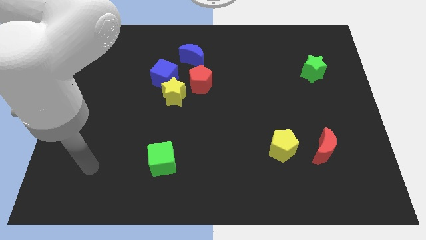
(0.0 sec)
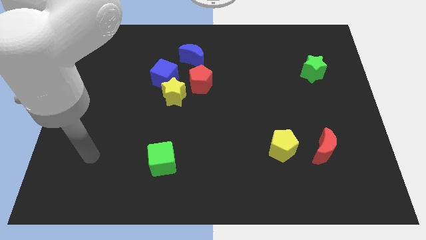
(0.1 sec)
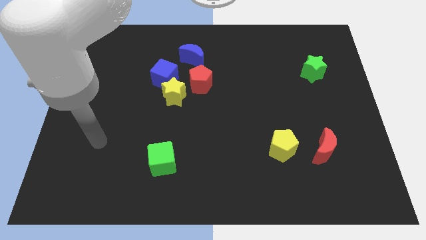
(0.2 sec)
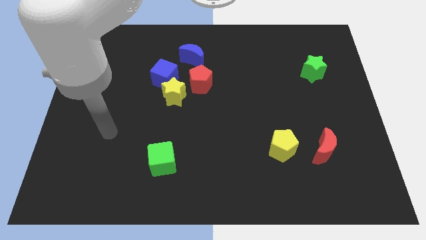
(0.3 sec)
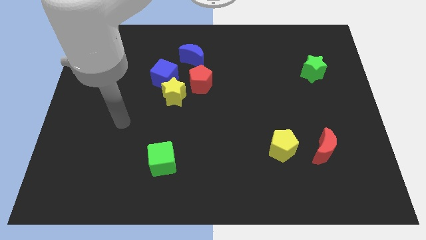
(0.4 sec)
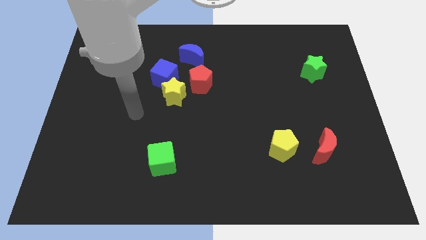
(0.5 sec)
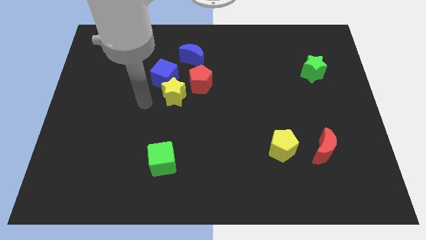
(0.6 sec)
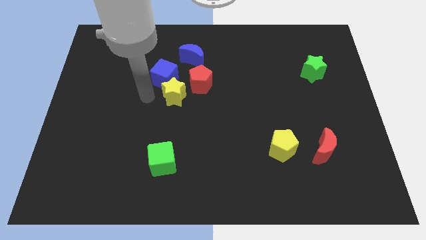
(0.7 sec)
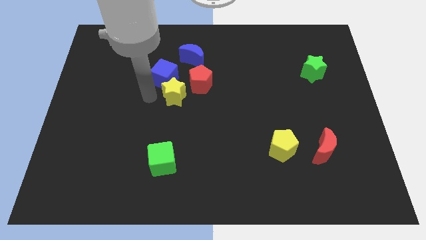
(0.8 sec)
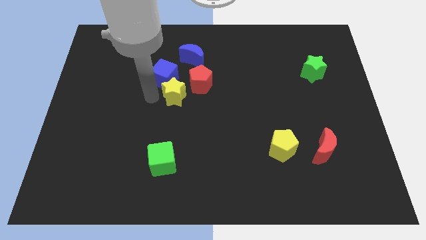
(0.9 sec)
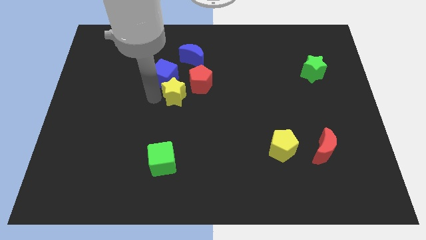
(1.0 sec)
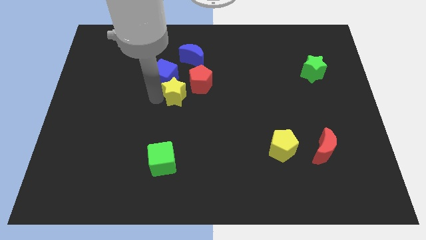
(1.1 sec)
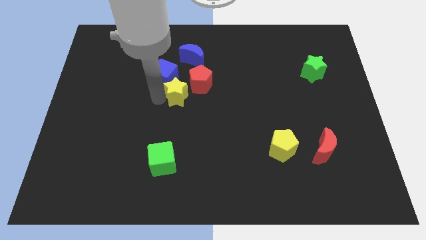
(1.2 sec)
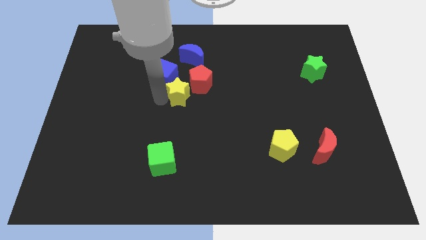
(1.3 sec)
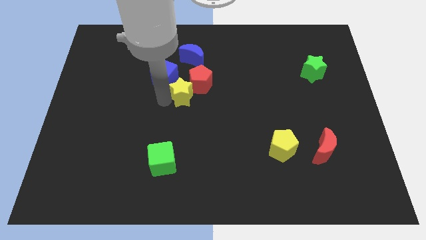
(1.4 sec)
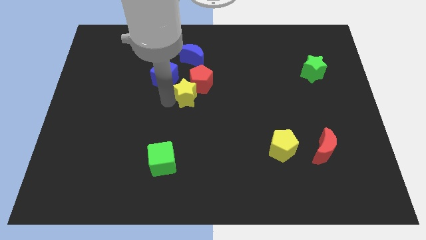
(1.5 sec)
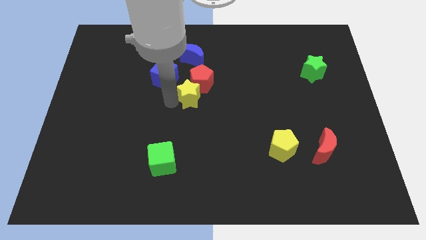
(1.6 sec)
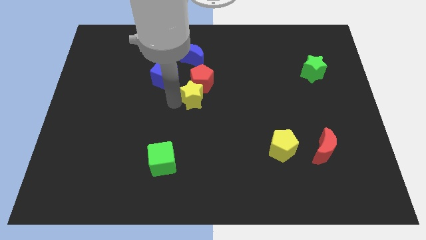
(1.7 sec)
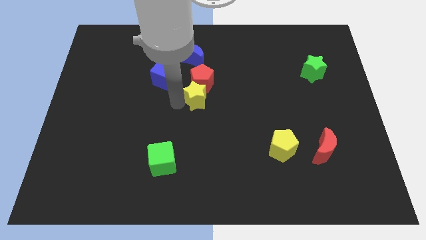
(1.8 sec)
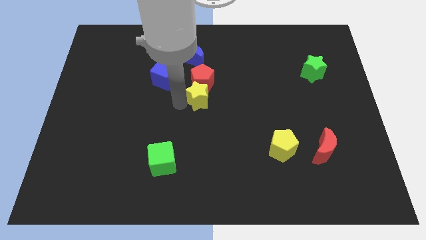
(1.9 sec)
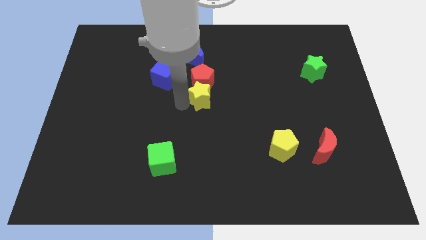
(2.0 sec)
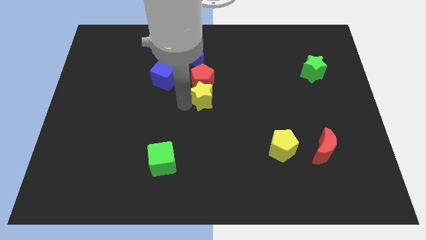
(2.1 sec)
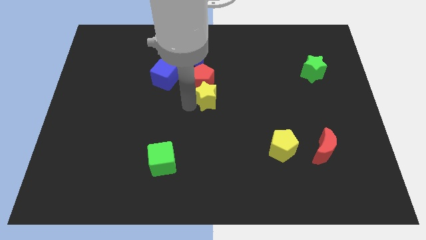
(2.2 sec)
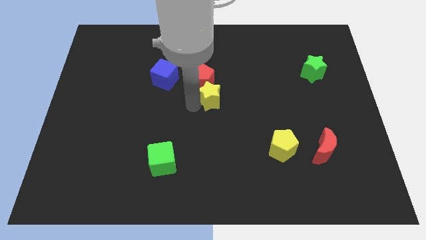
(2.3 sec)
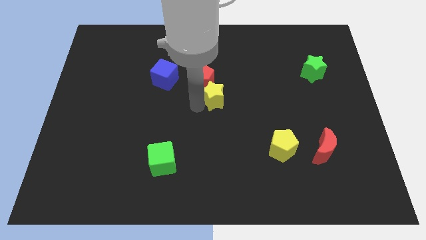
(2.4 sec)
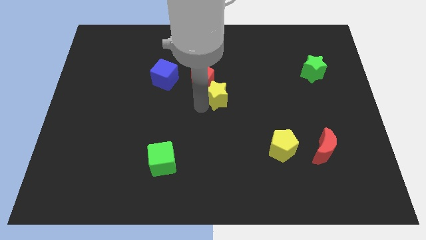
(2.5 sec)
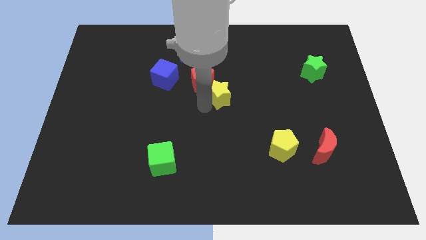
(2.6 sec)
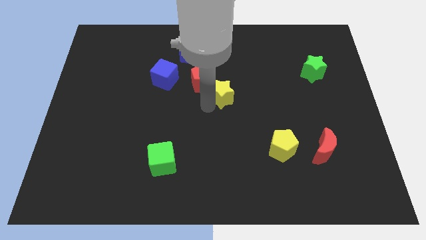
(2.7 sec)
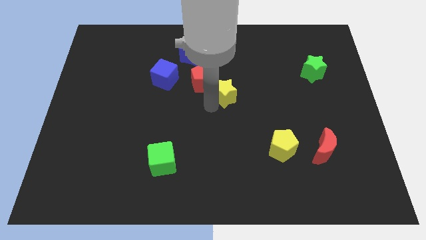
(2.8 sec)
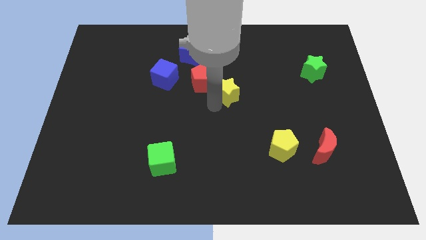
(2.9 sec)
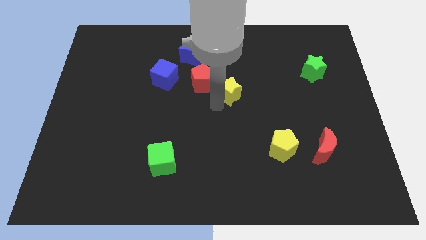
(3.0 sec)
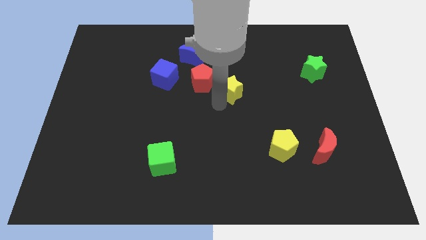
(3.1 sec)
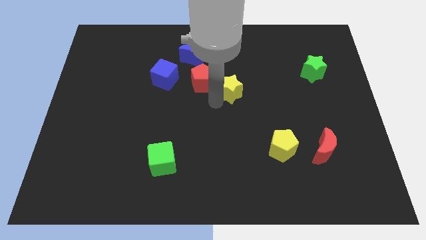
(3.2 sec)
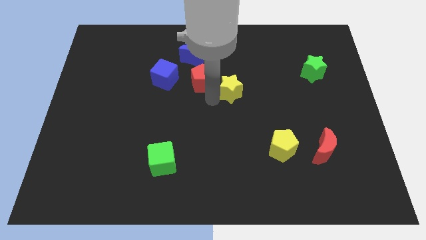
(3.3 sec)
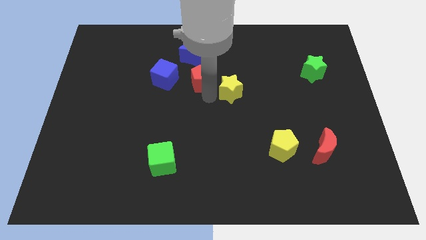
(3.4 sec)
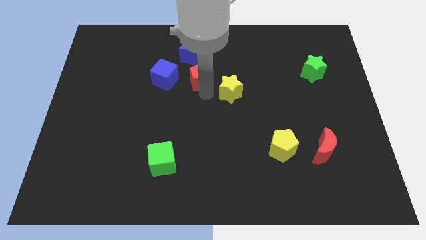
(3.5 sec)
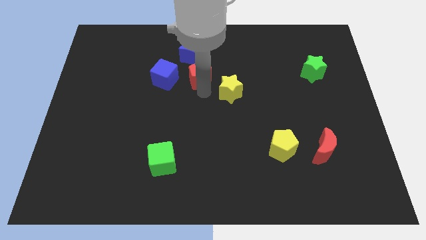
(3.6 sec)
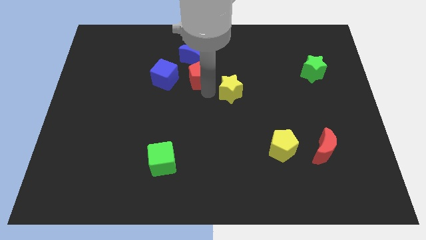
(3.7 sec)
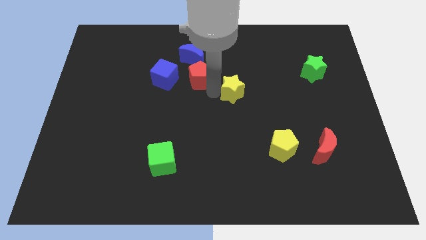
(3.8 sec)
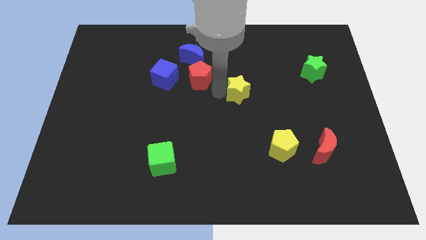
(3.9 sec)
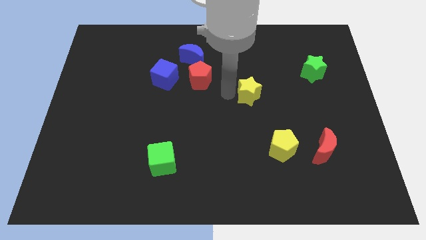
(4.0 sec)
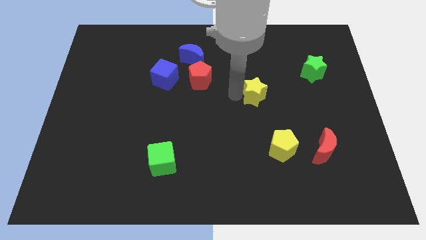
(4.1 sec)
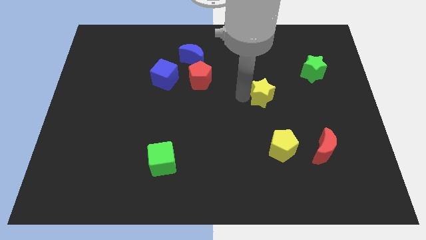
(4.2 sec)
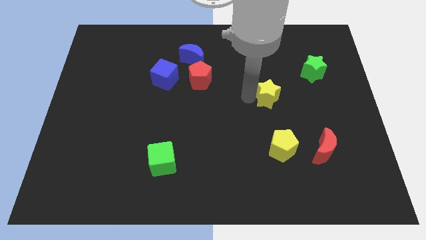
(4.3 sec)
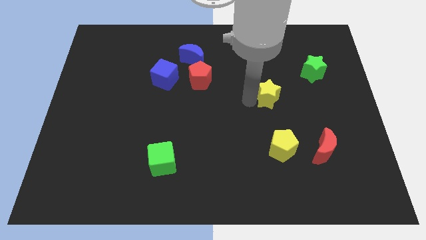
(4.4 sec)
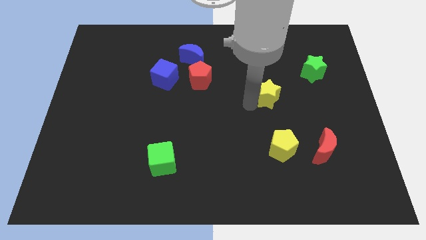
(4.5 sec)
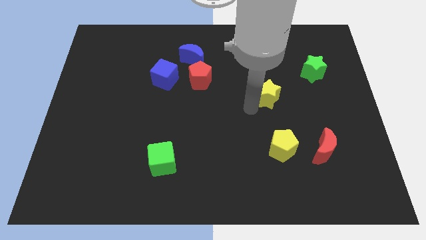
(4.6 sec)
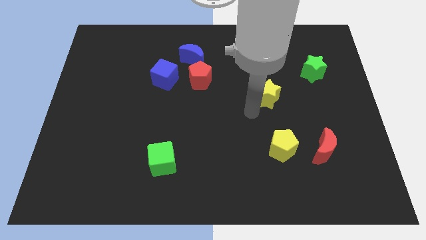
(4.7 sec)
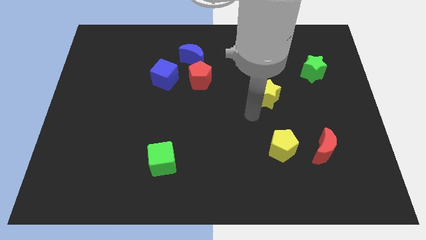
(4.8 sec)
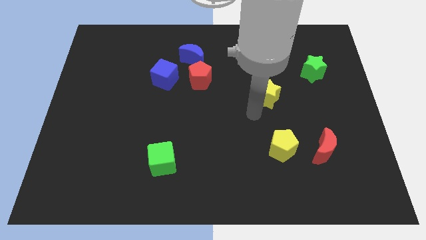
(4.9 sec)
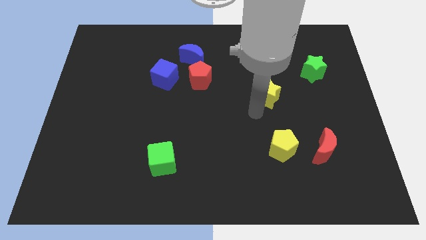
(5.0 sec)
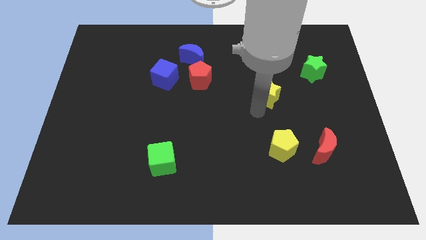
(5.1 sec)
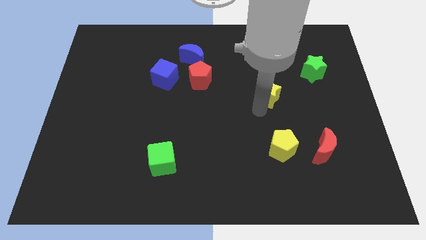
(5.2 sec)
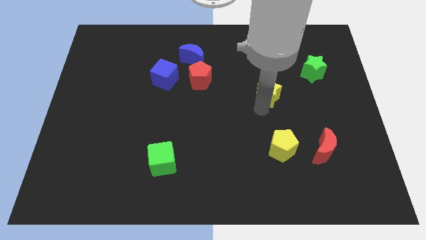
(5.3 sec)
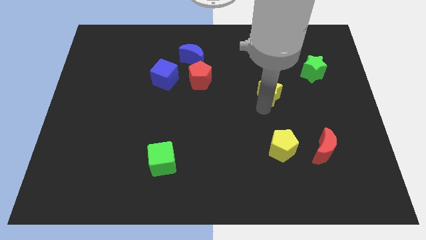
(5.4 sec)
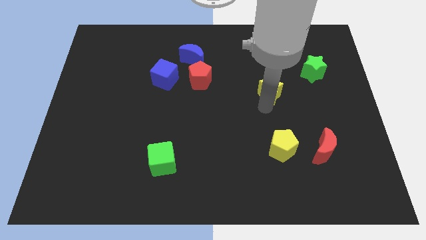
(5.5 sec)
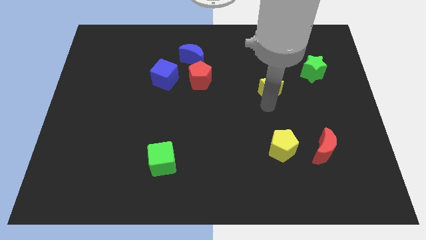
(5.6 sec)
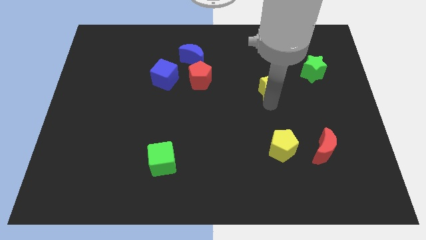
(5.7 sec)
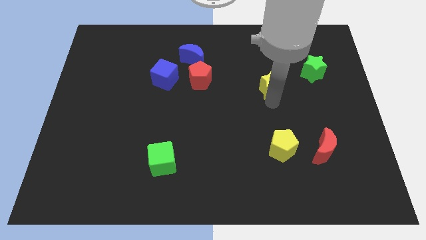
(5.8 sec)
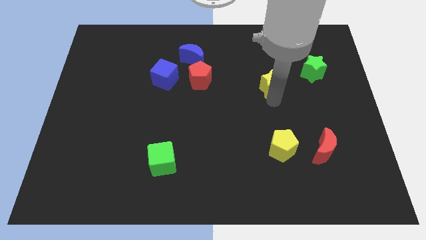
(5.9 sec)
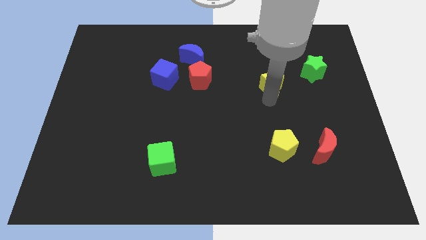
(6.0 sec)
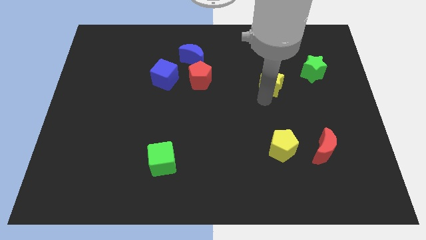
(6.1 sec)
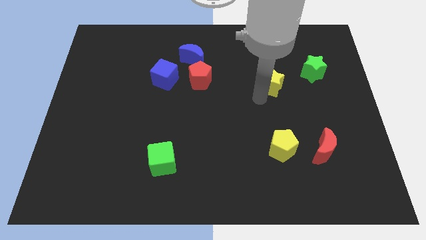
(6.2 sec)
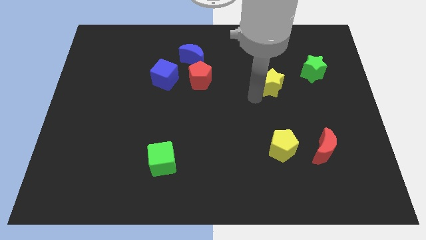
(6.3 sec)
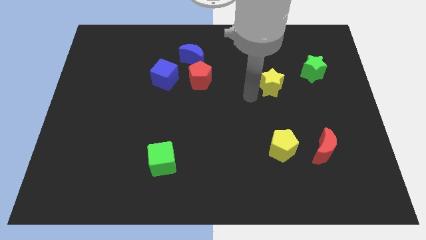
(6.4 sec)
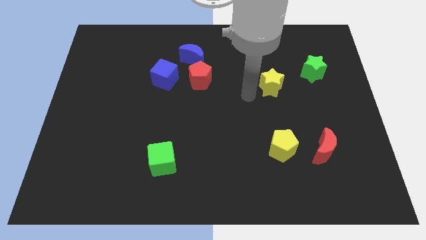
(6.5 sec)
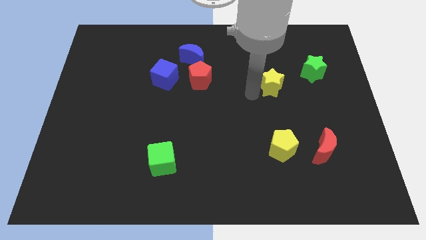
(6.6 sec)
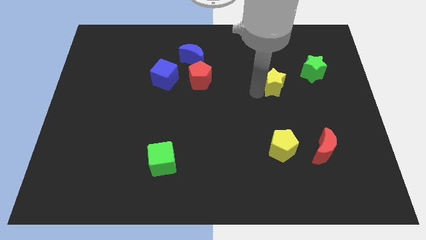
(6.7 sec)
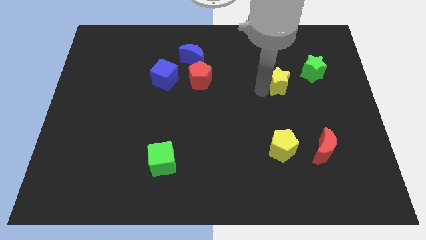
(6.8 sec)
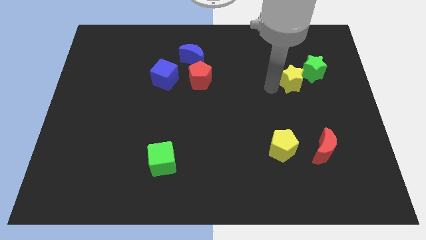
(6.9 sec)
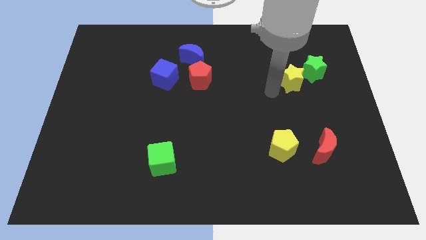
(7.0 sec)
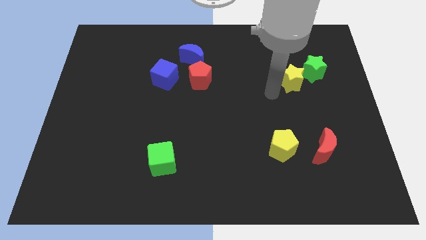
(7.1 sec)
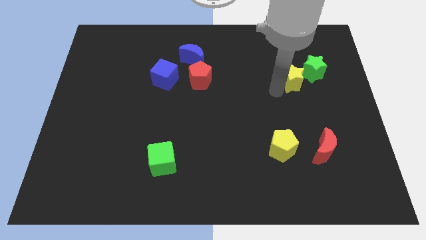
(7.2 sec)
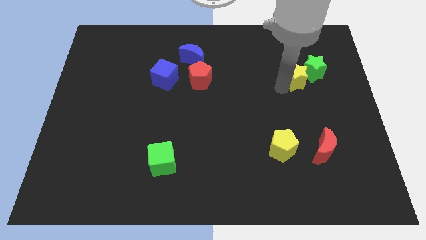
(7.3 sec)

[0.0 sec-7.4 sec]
put the yellow star close to the green star

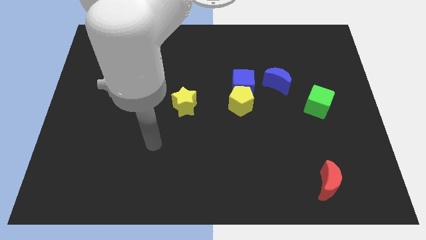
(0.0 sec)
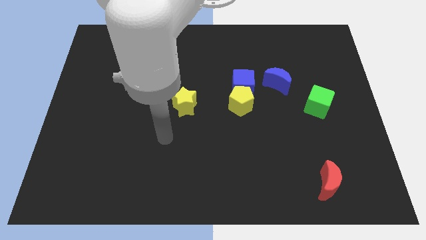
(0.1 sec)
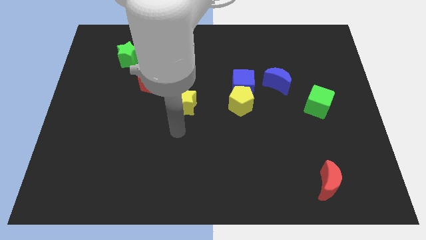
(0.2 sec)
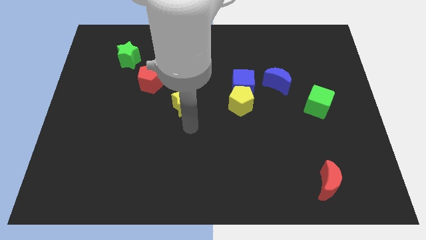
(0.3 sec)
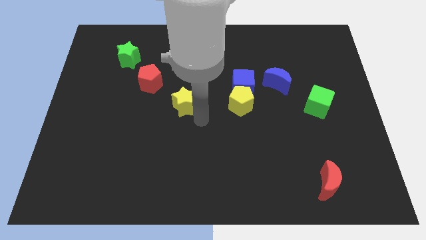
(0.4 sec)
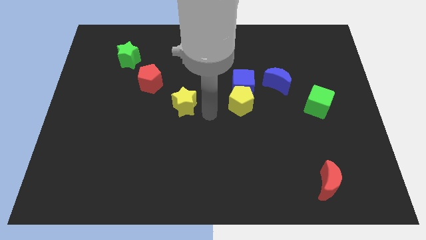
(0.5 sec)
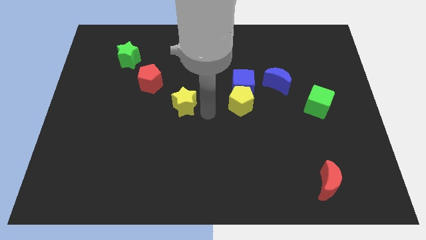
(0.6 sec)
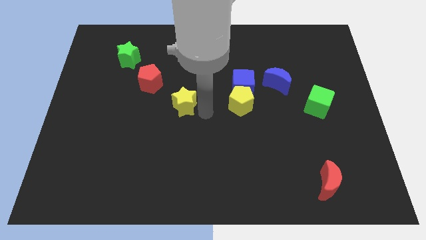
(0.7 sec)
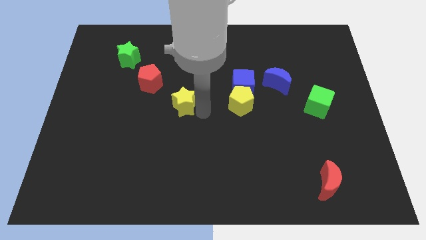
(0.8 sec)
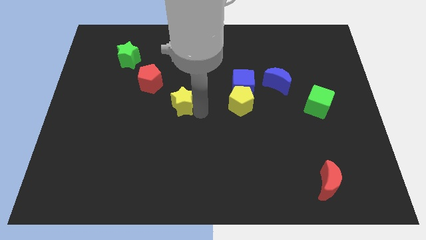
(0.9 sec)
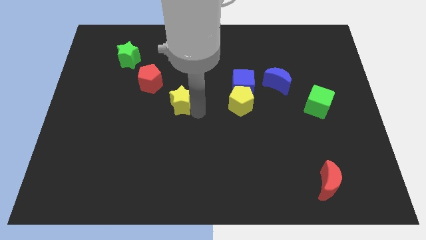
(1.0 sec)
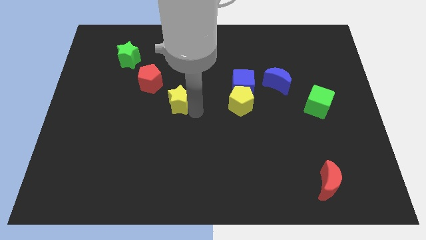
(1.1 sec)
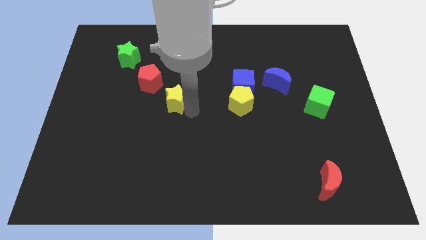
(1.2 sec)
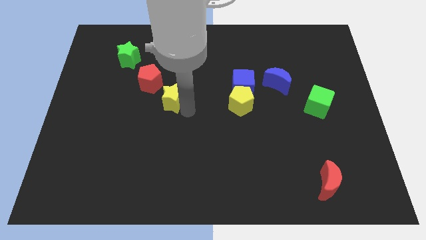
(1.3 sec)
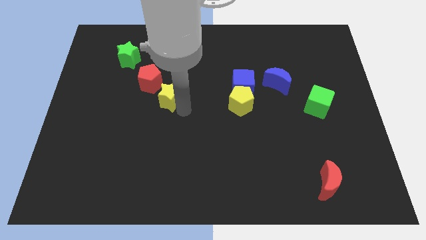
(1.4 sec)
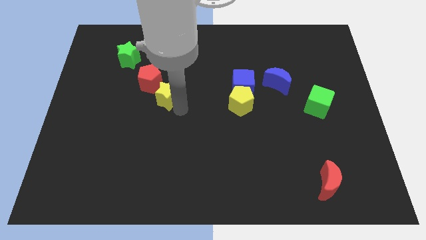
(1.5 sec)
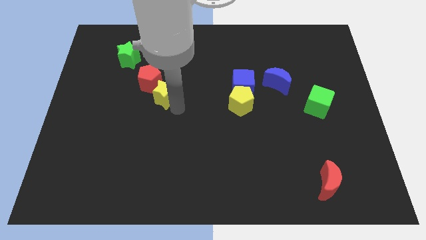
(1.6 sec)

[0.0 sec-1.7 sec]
push the yellow star to the red pentagon
